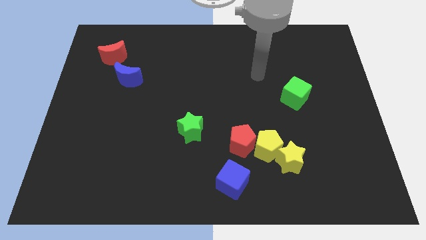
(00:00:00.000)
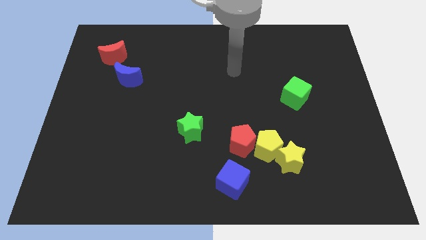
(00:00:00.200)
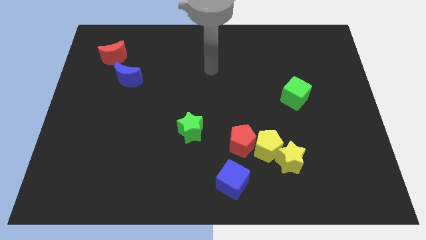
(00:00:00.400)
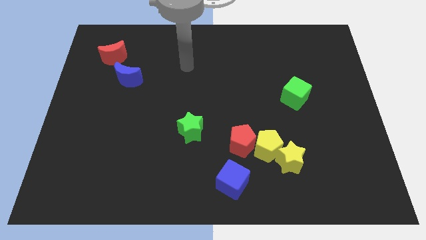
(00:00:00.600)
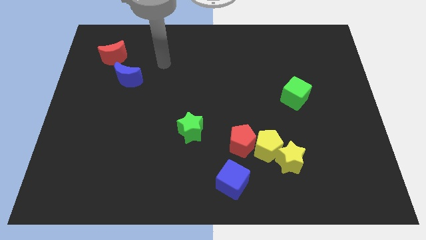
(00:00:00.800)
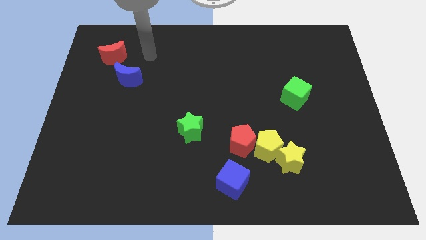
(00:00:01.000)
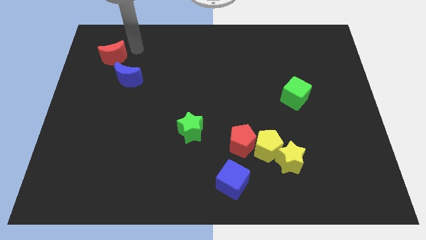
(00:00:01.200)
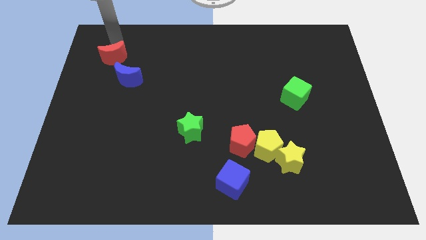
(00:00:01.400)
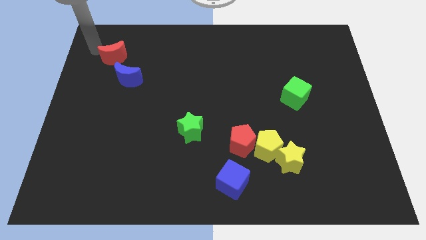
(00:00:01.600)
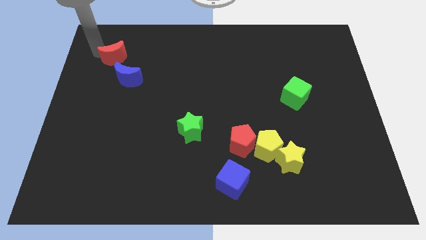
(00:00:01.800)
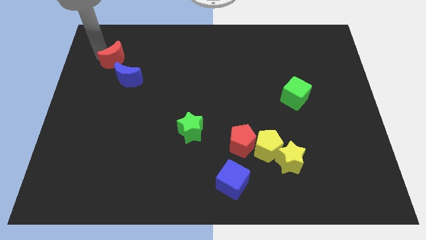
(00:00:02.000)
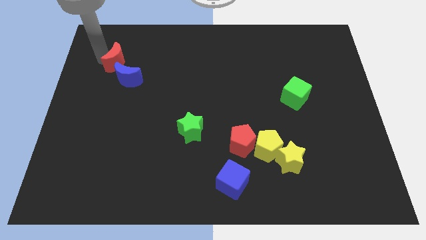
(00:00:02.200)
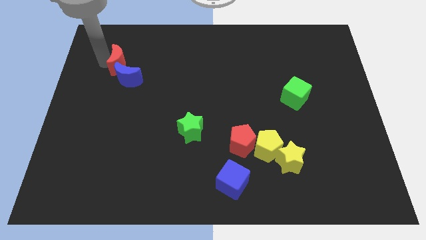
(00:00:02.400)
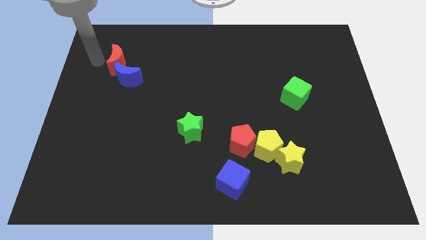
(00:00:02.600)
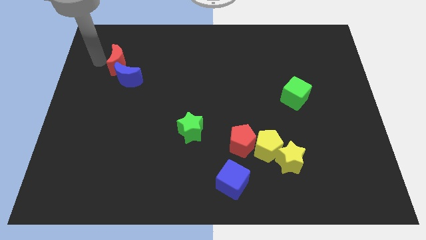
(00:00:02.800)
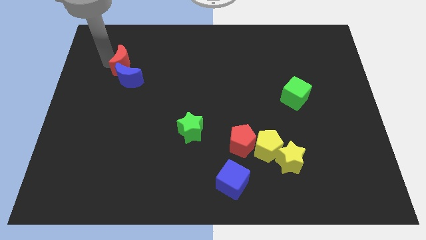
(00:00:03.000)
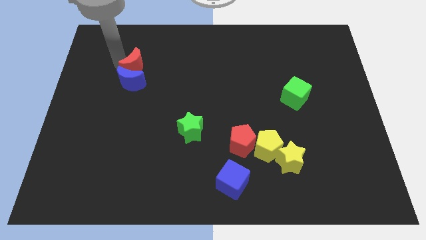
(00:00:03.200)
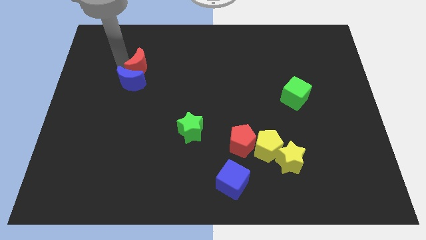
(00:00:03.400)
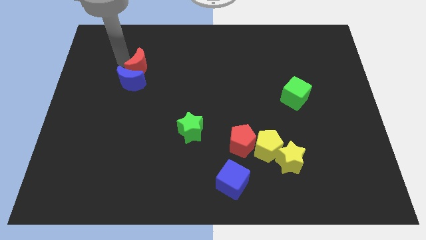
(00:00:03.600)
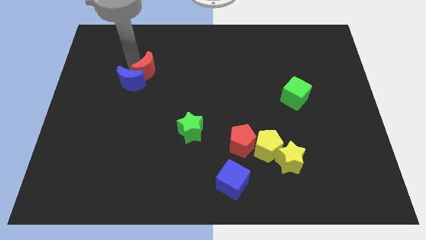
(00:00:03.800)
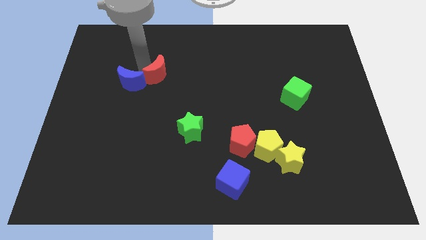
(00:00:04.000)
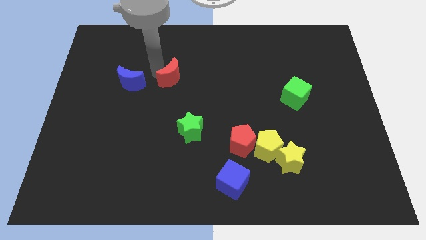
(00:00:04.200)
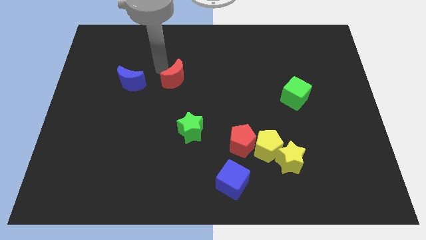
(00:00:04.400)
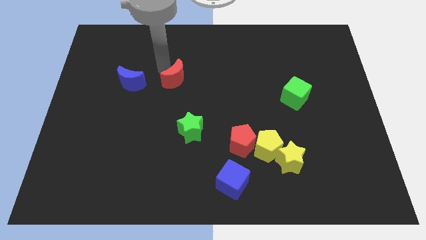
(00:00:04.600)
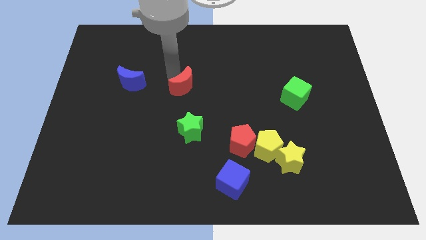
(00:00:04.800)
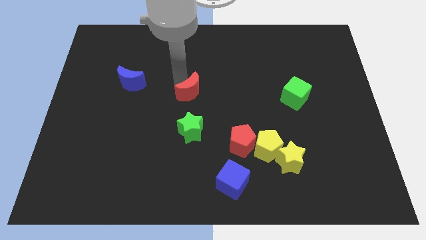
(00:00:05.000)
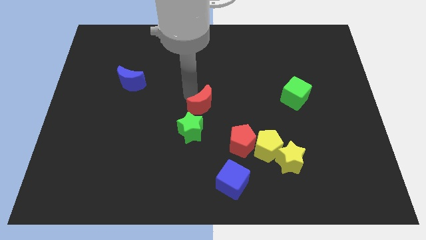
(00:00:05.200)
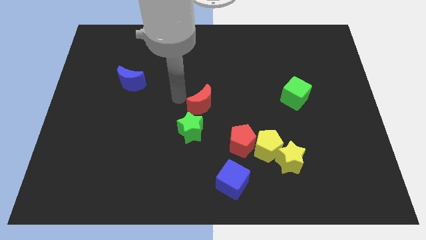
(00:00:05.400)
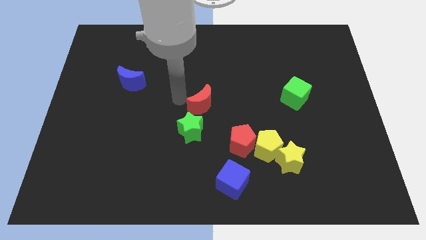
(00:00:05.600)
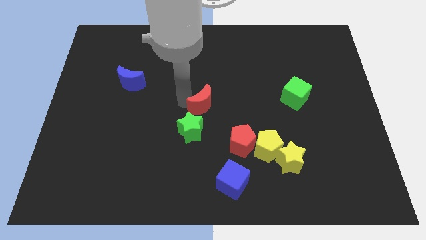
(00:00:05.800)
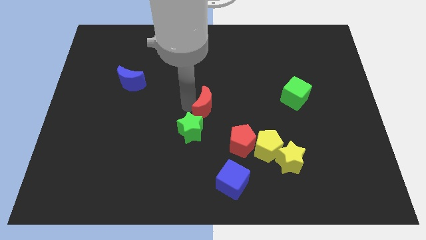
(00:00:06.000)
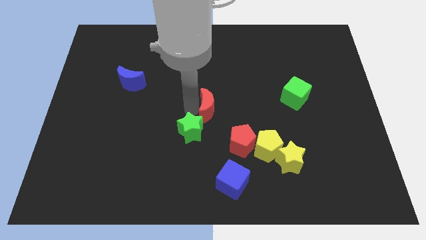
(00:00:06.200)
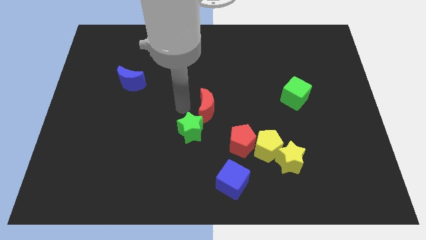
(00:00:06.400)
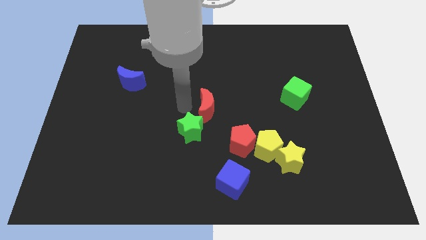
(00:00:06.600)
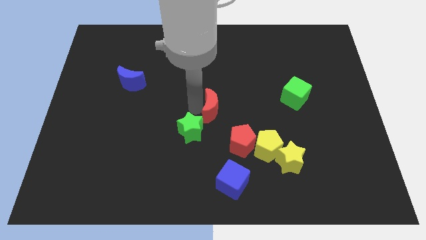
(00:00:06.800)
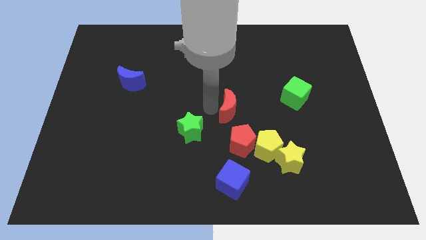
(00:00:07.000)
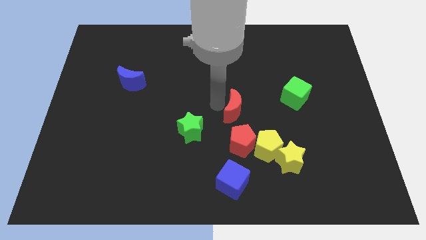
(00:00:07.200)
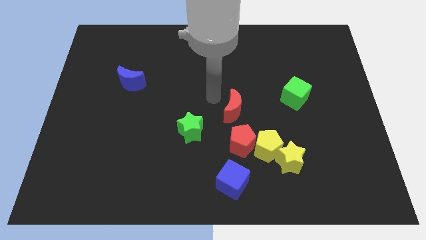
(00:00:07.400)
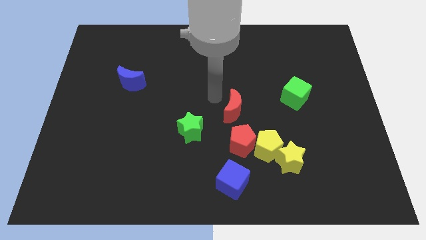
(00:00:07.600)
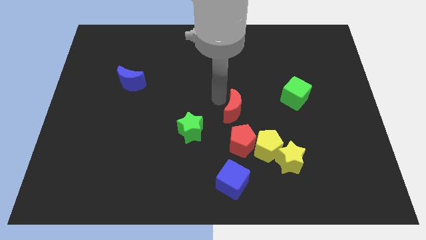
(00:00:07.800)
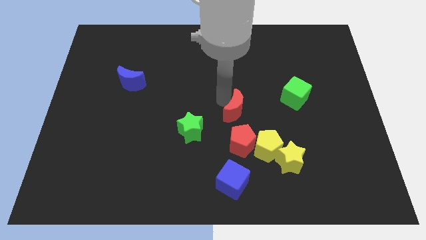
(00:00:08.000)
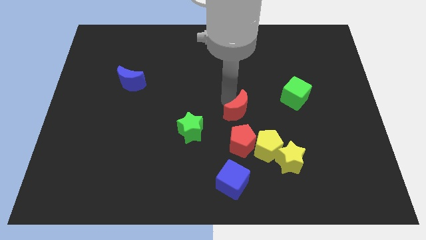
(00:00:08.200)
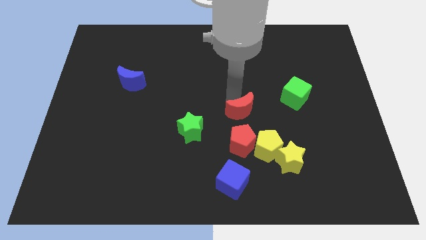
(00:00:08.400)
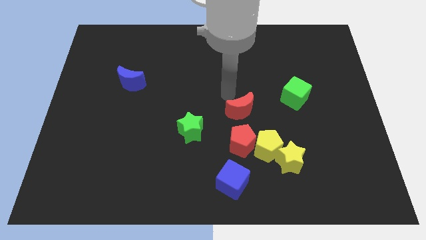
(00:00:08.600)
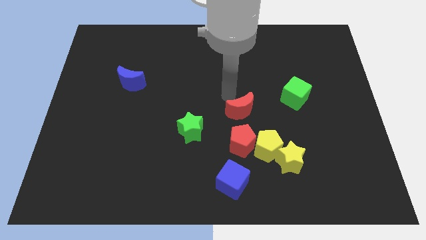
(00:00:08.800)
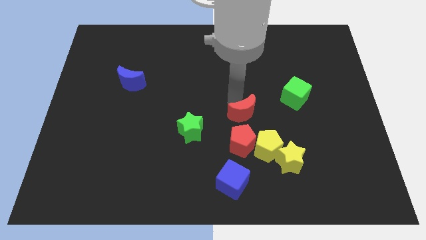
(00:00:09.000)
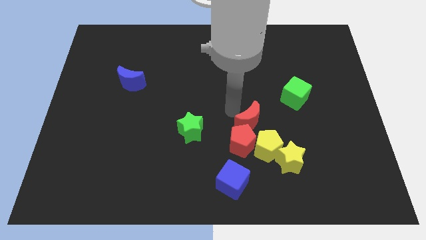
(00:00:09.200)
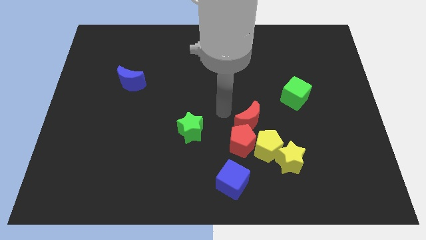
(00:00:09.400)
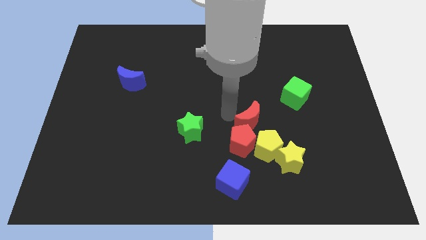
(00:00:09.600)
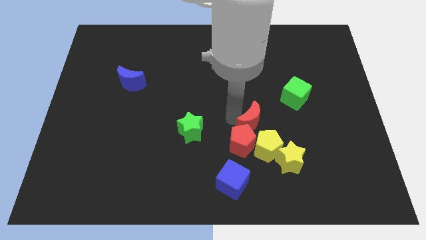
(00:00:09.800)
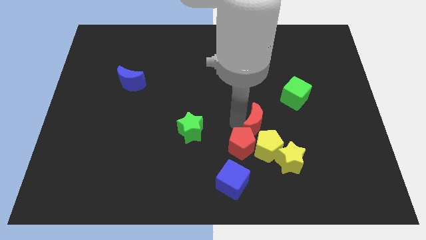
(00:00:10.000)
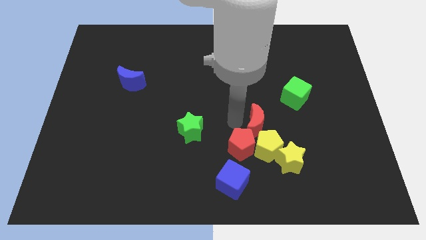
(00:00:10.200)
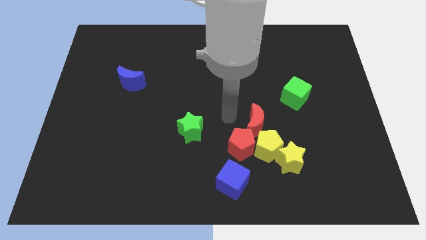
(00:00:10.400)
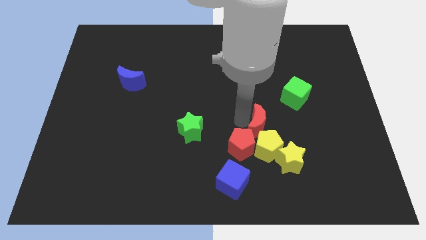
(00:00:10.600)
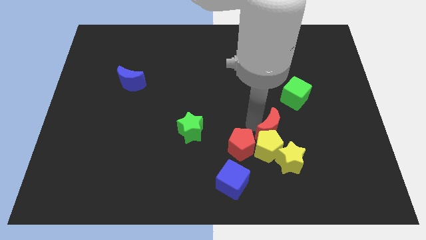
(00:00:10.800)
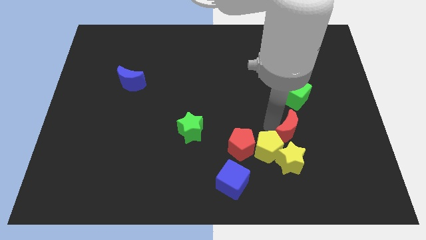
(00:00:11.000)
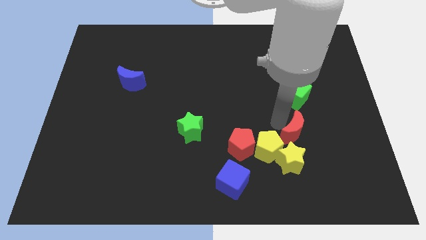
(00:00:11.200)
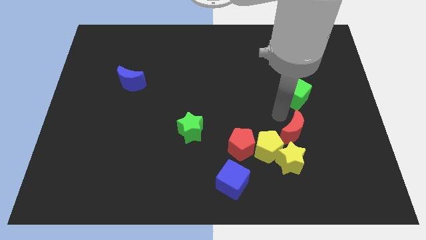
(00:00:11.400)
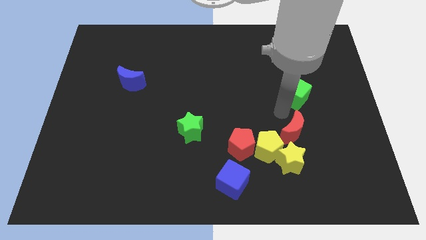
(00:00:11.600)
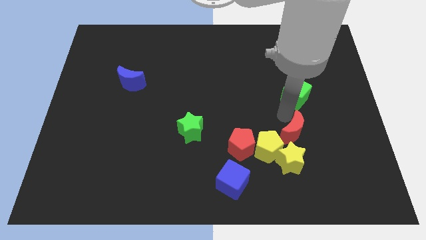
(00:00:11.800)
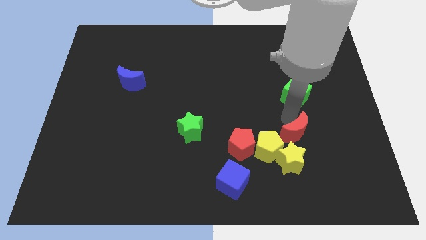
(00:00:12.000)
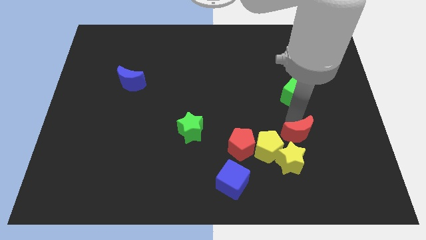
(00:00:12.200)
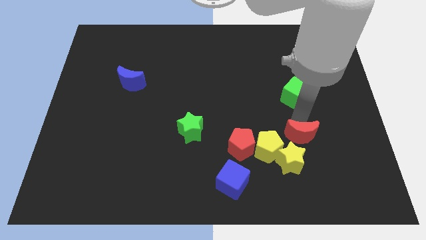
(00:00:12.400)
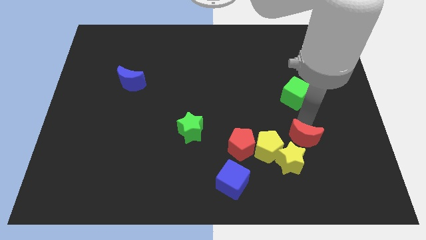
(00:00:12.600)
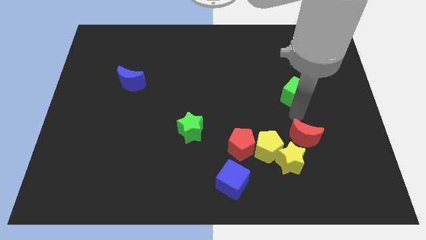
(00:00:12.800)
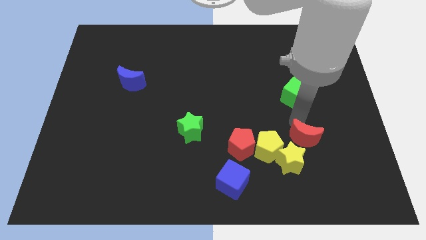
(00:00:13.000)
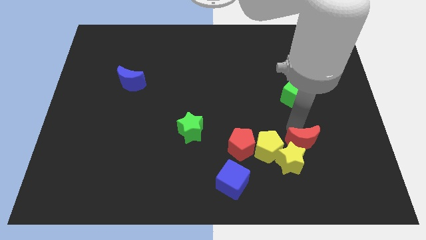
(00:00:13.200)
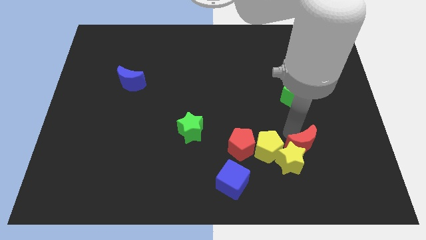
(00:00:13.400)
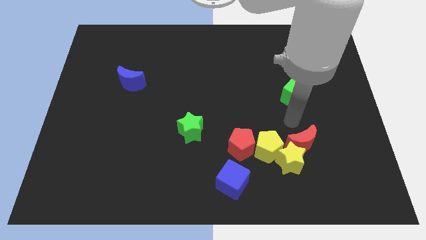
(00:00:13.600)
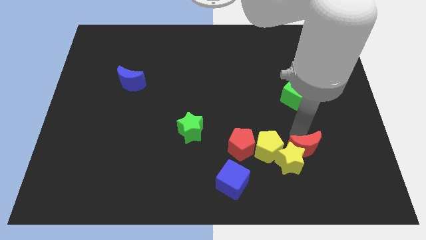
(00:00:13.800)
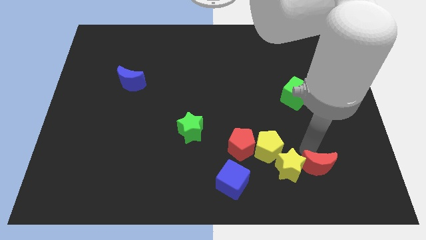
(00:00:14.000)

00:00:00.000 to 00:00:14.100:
put the red moon diagonally down and to the right of the yellow star
